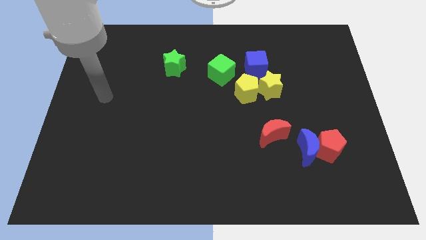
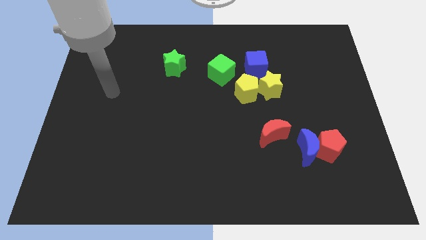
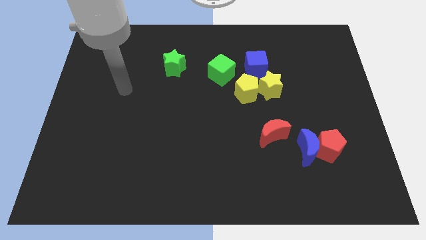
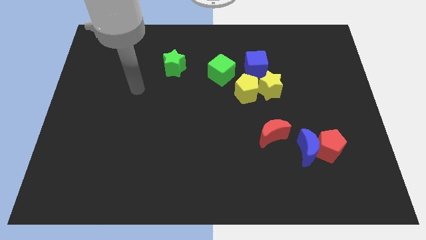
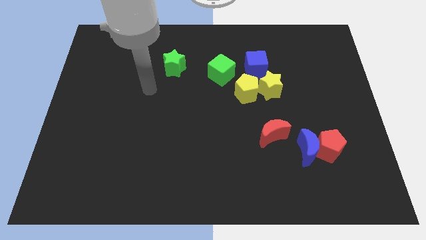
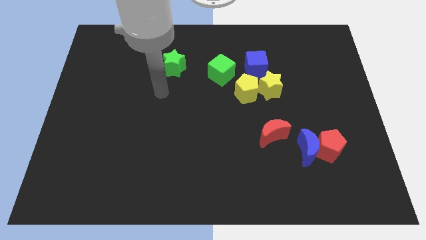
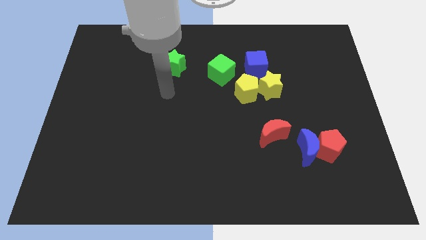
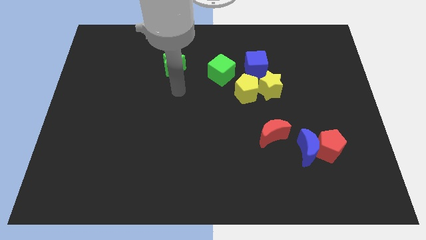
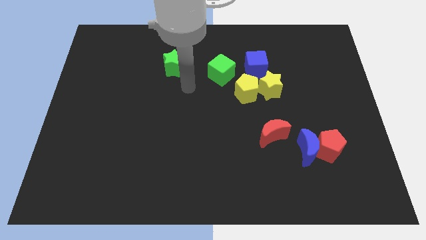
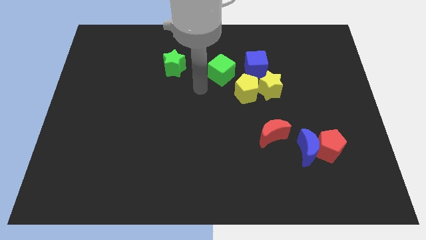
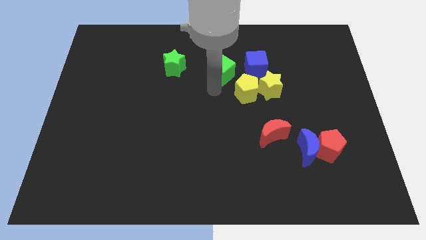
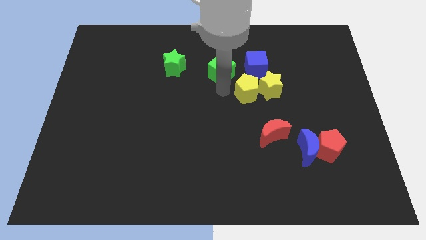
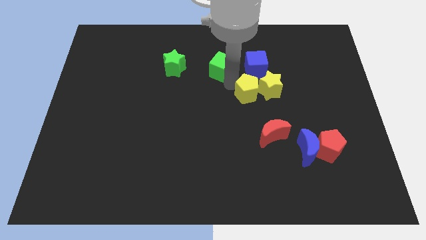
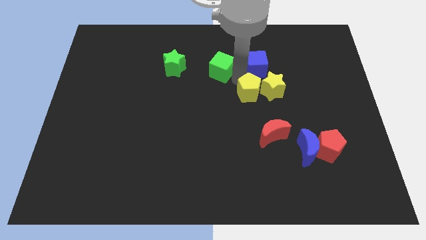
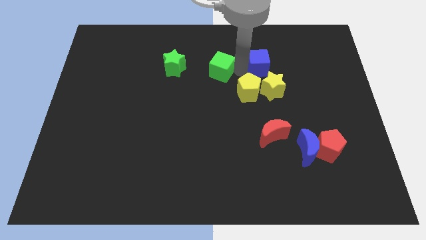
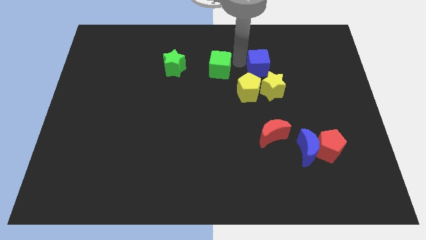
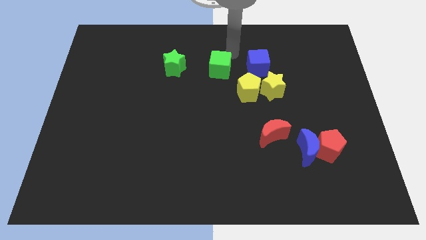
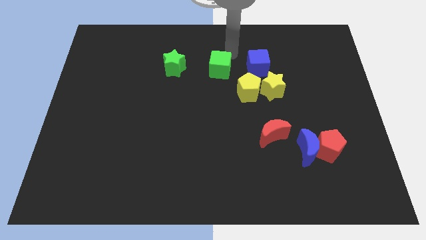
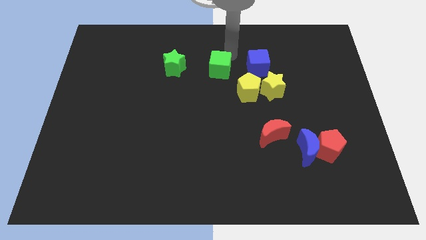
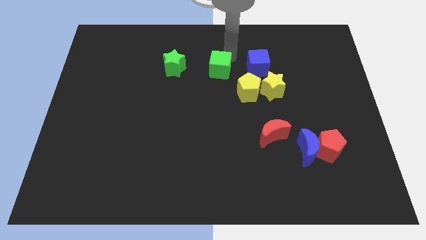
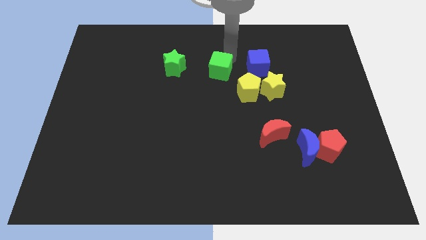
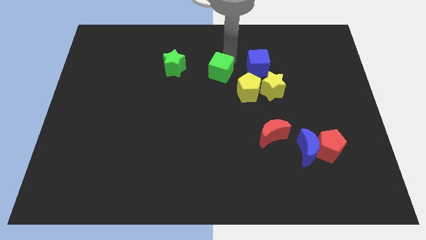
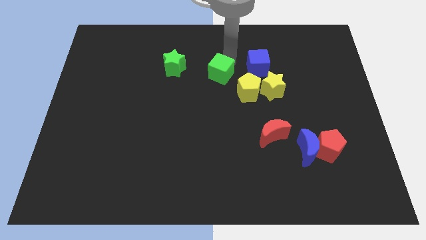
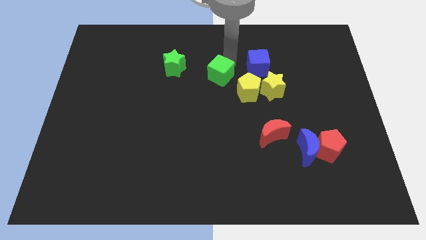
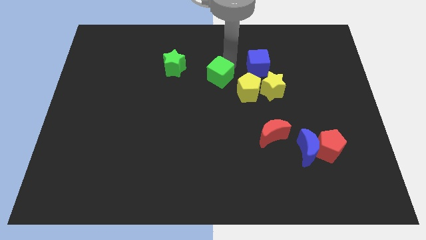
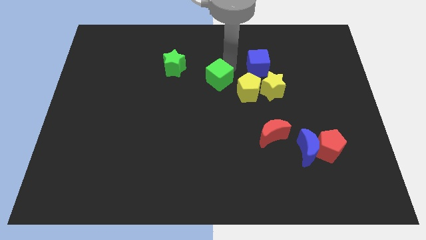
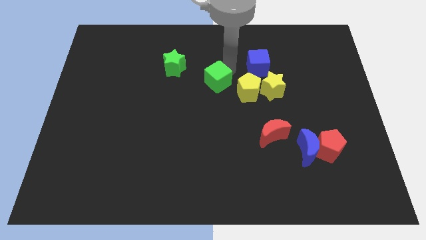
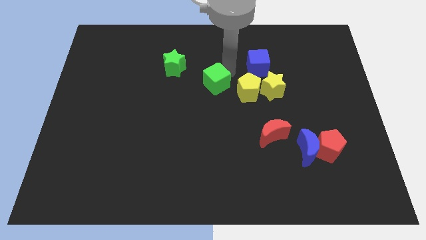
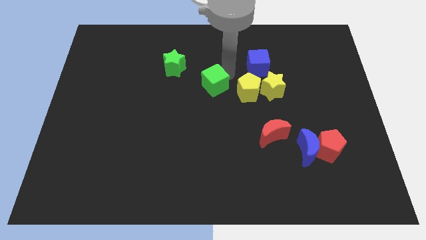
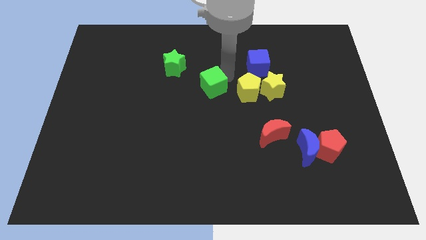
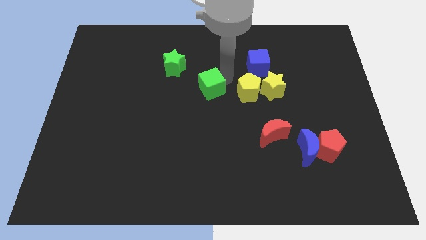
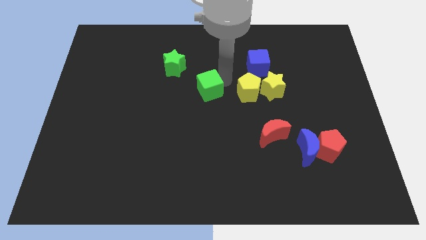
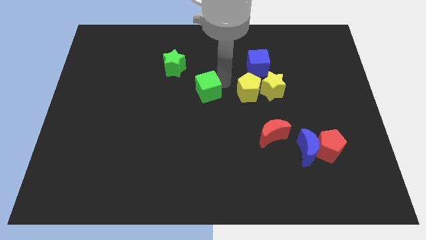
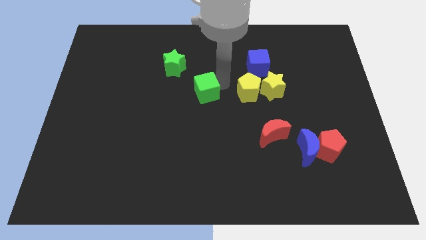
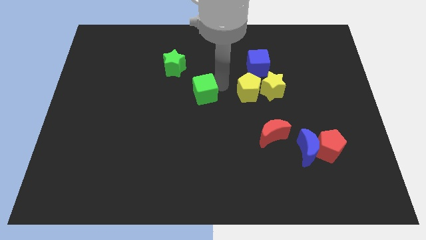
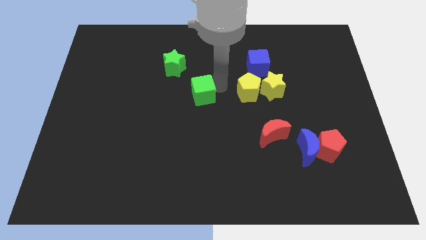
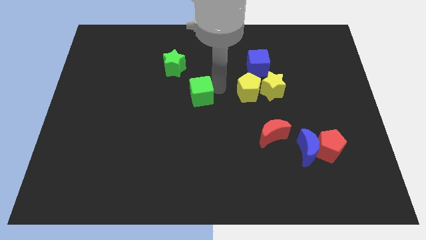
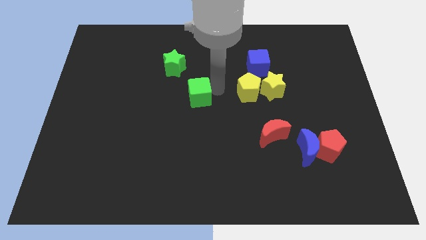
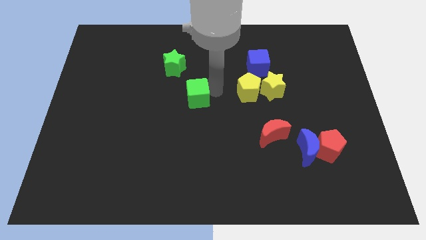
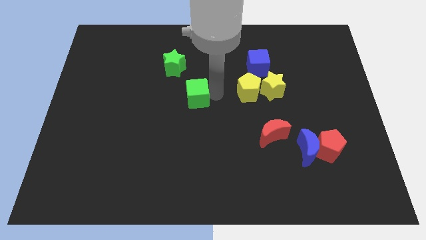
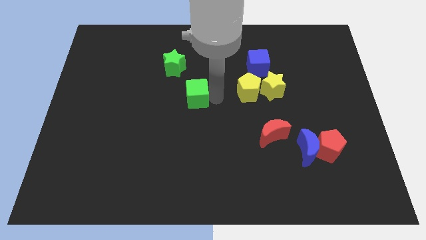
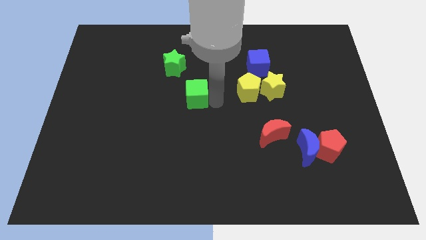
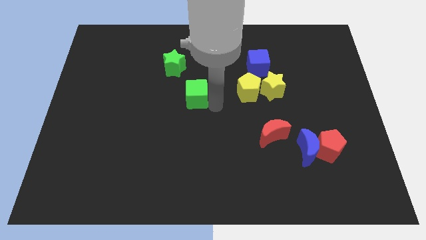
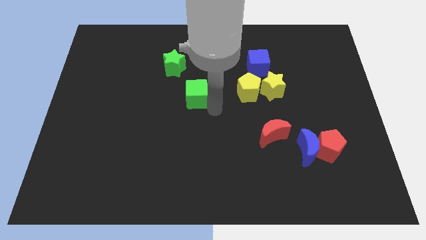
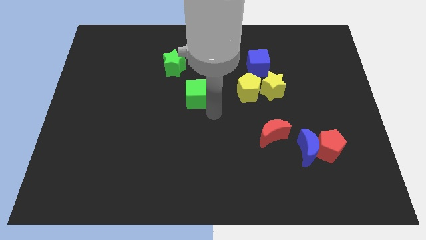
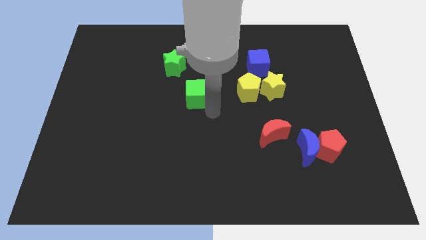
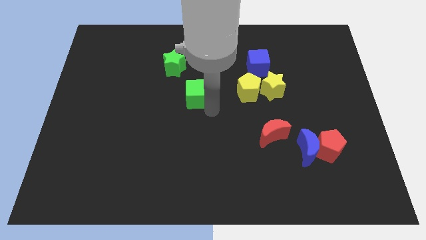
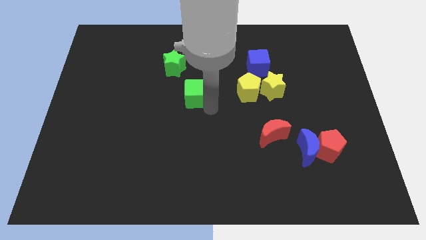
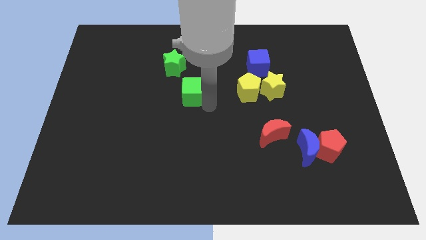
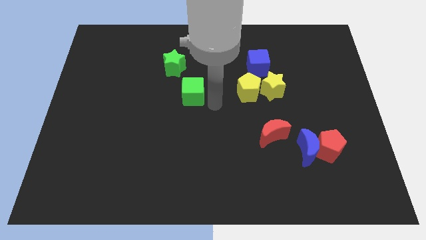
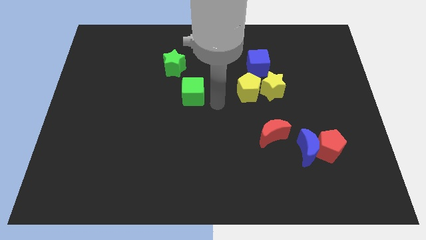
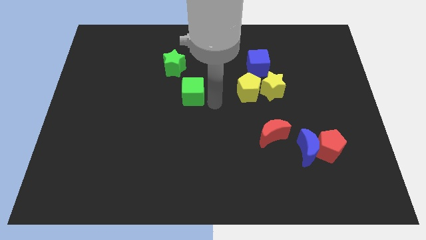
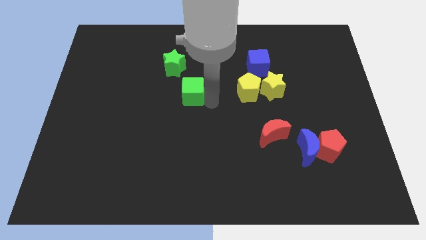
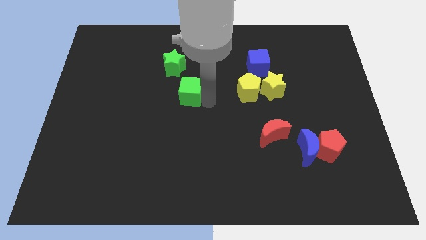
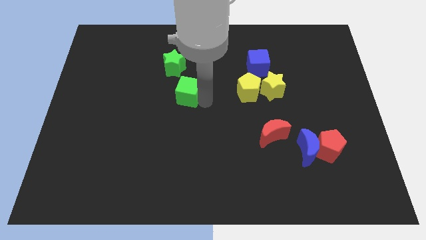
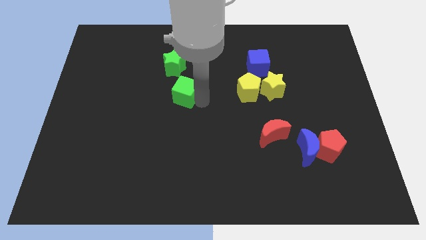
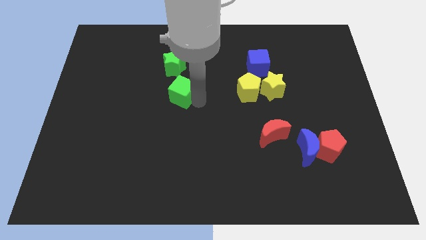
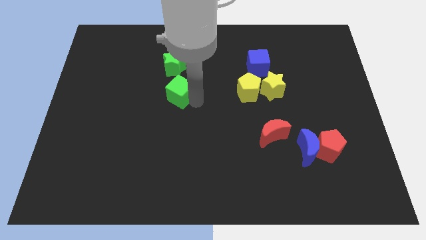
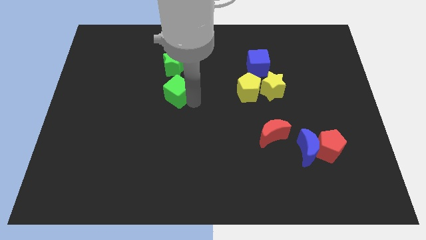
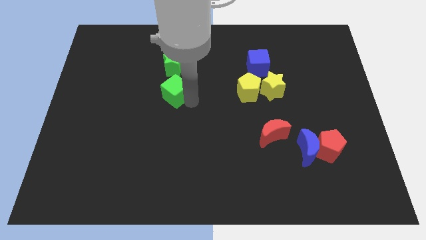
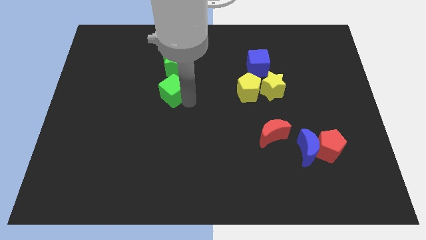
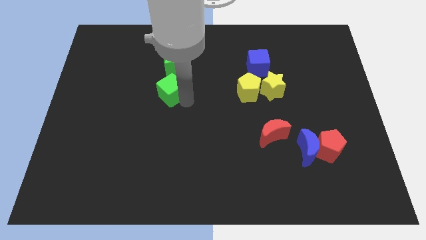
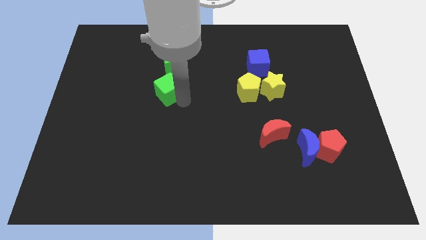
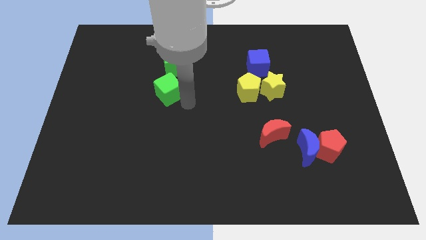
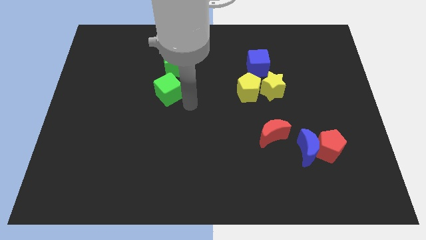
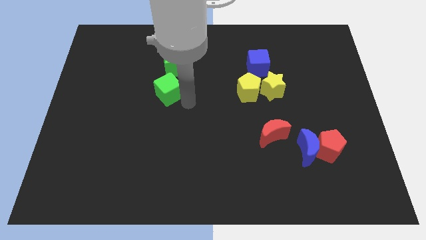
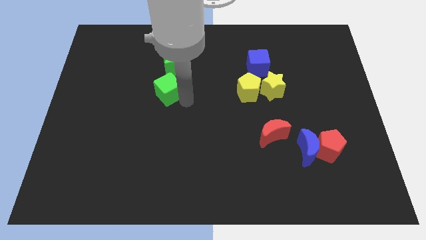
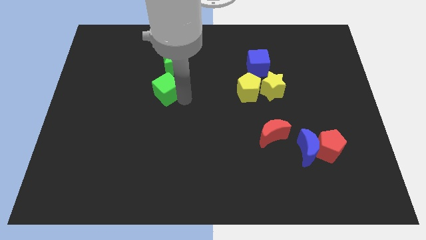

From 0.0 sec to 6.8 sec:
slide the green cube to the bottom left of the green star

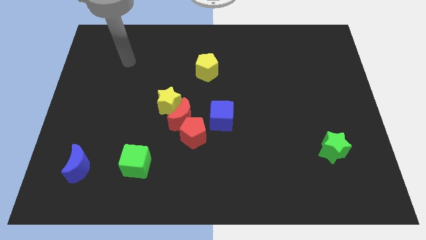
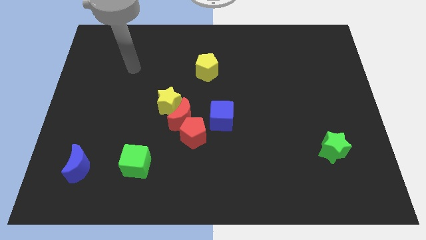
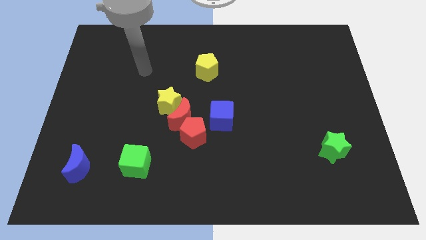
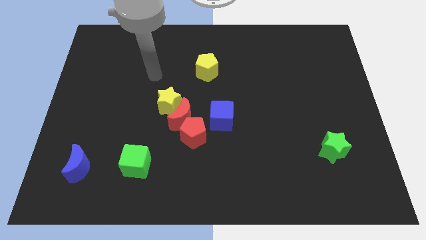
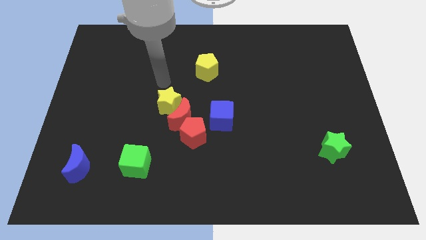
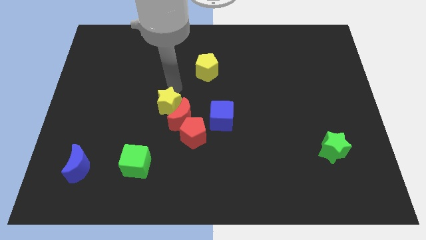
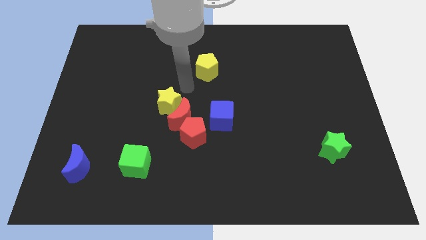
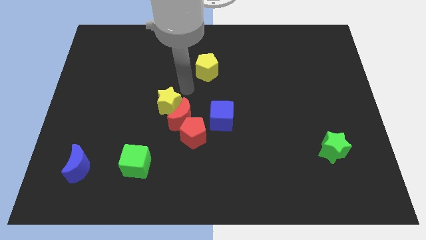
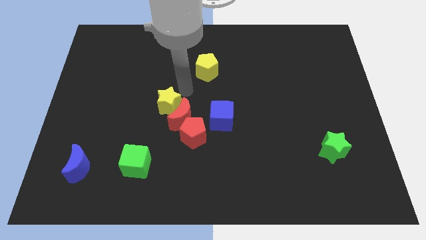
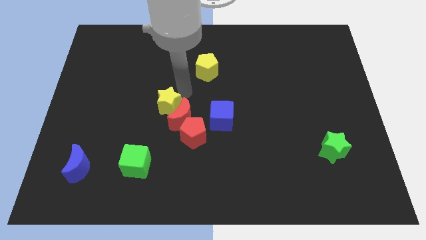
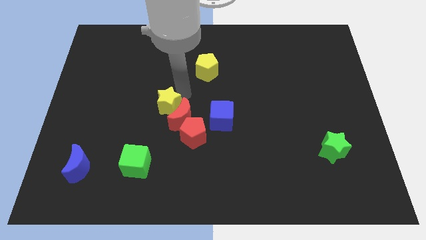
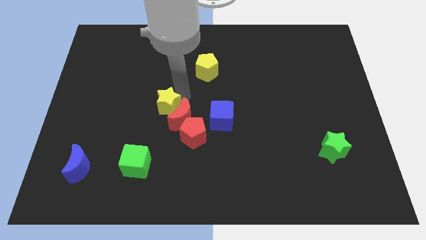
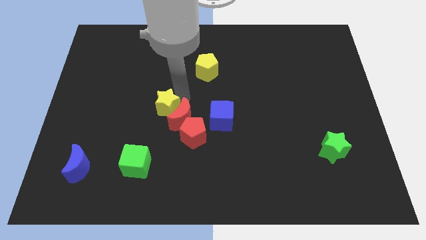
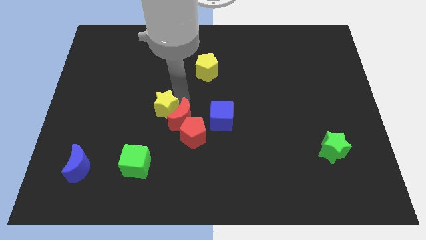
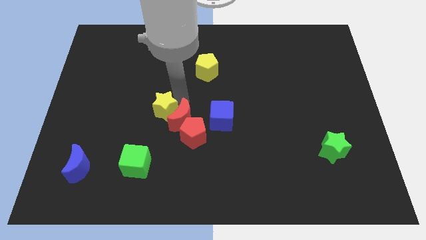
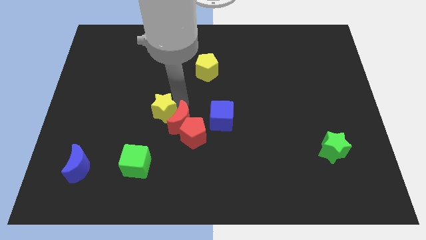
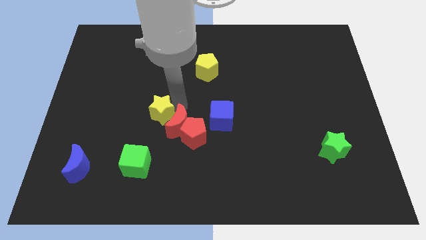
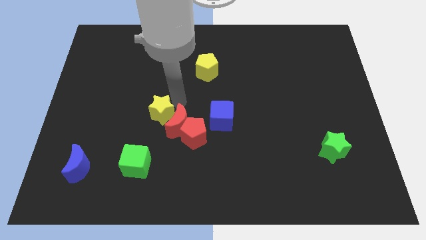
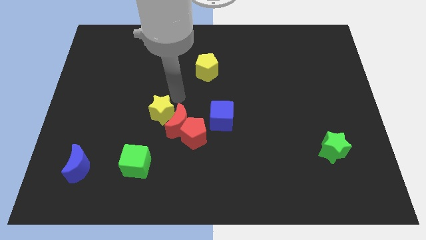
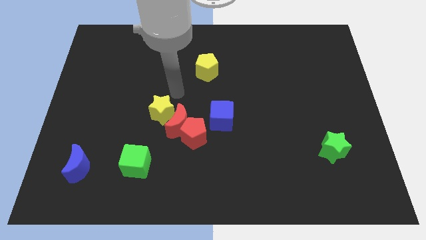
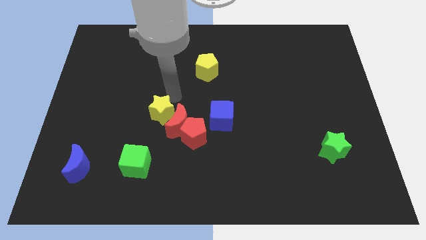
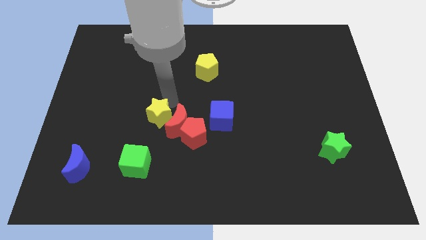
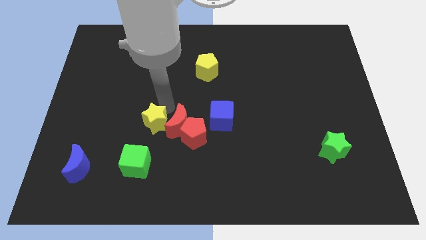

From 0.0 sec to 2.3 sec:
slide the yellow star just left of the red pentagon
